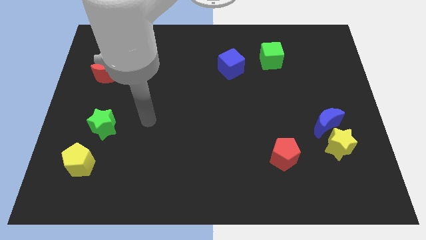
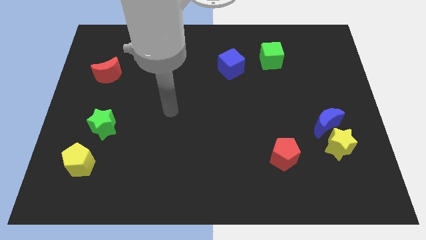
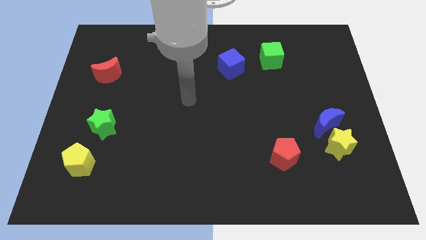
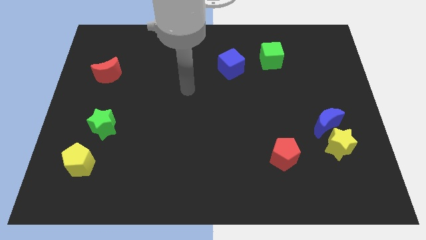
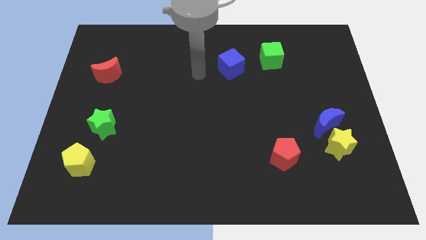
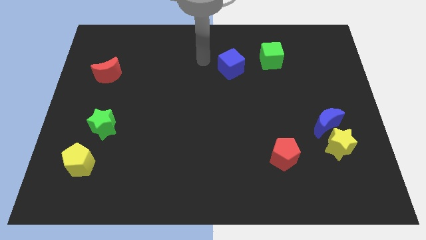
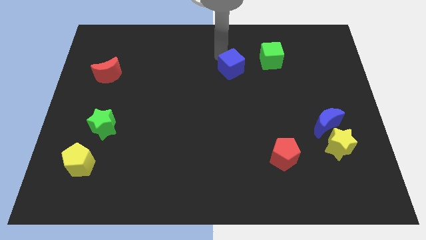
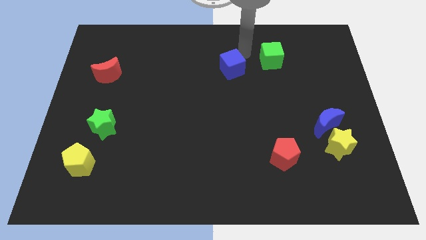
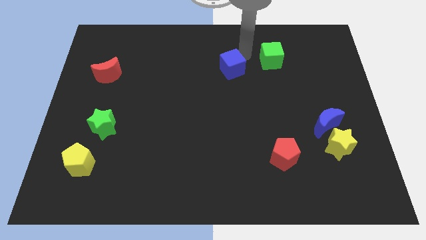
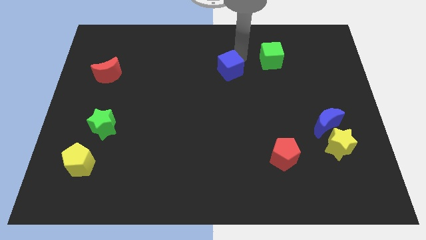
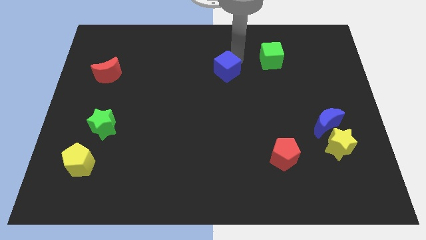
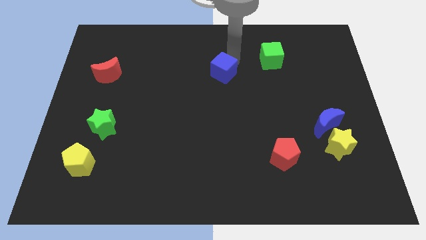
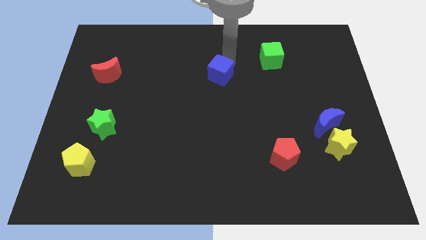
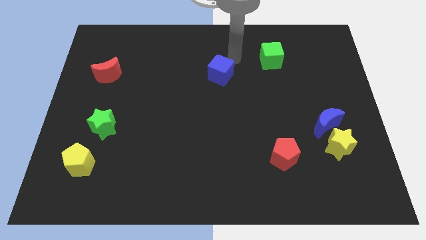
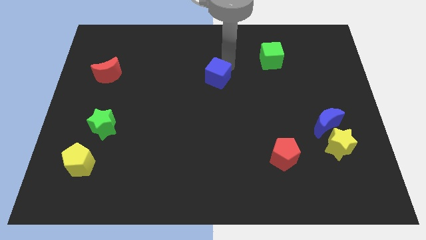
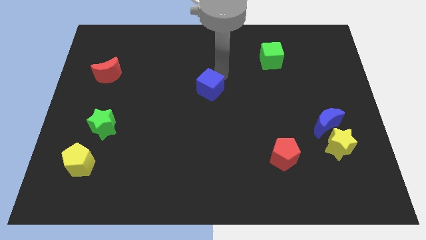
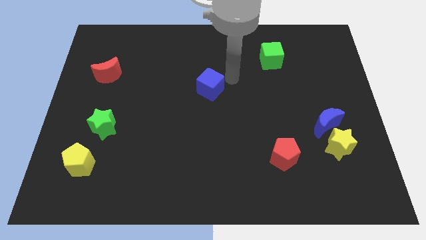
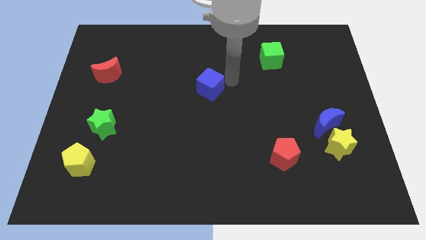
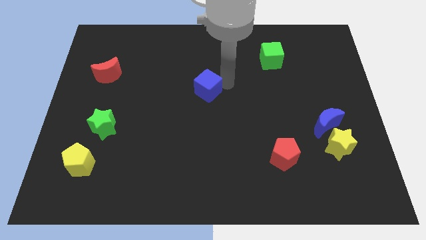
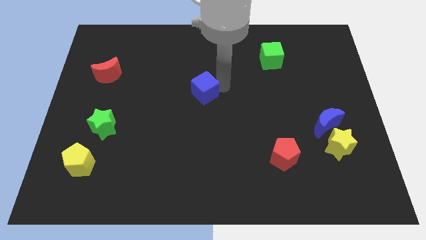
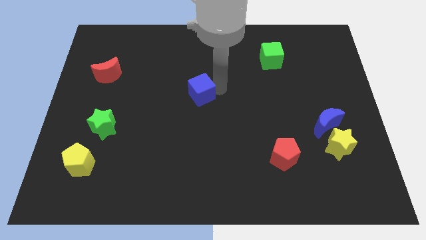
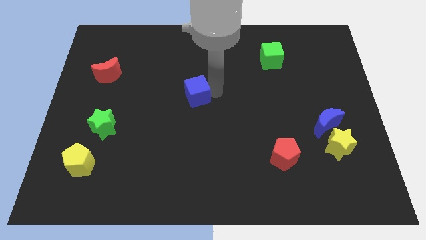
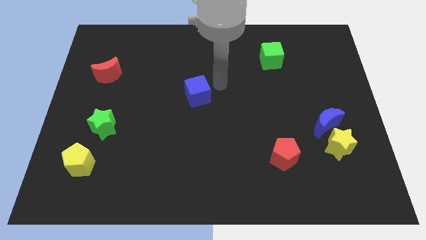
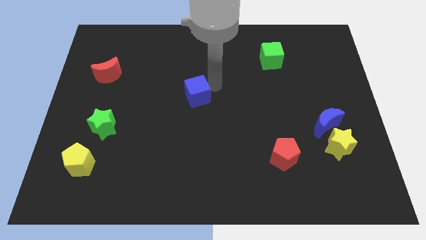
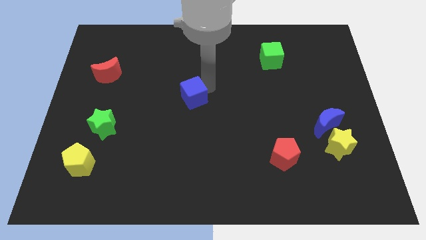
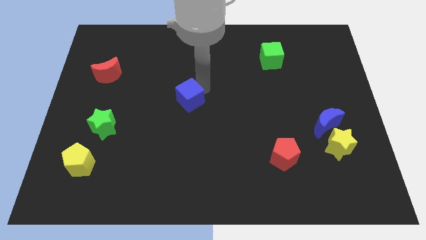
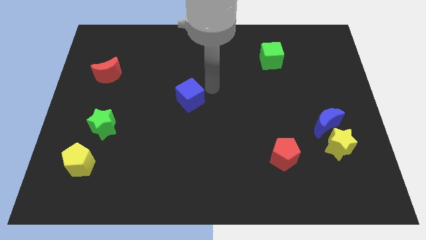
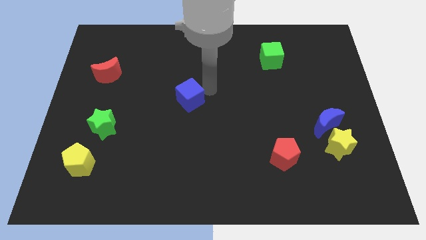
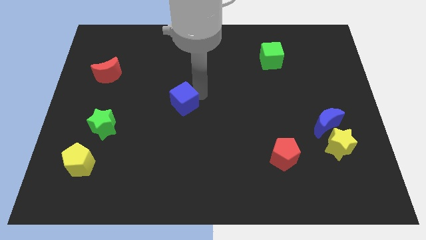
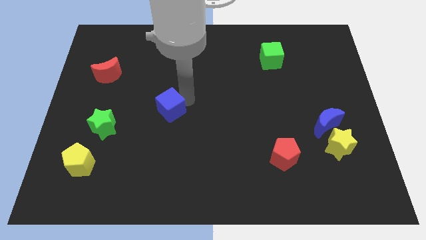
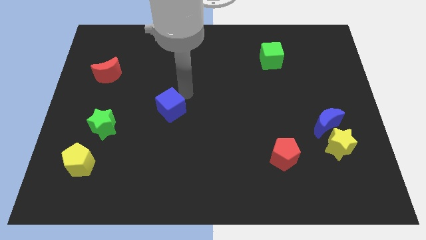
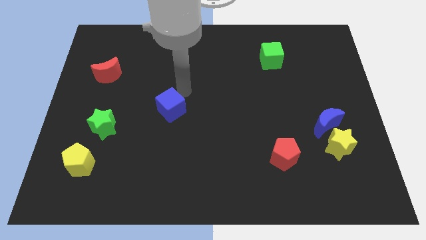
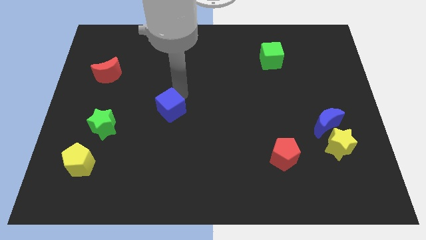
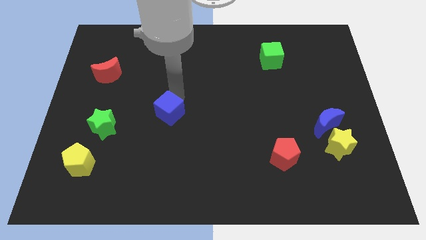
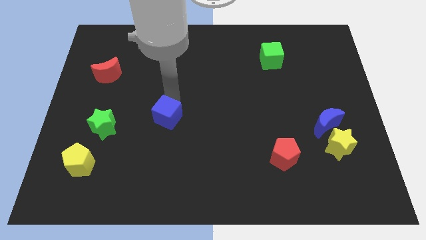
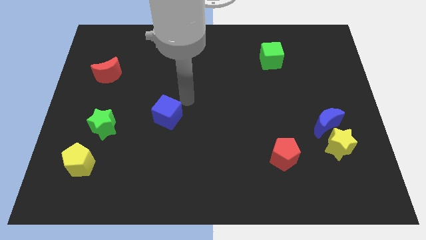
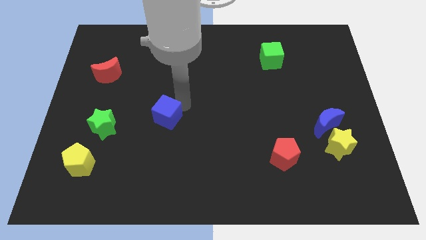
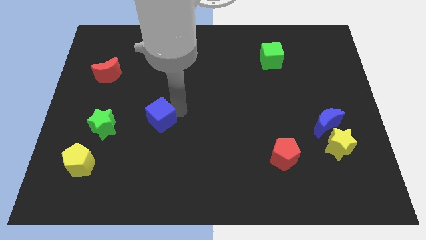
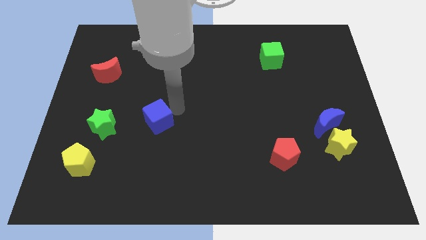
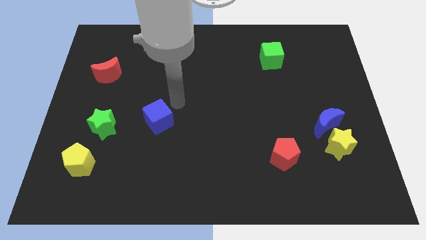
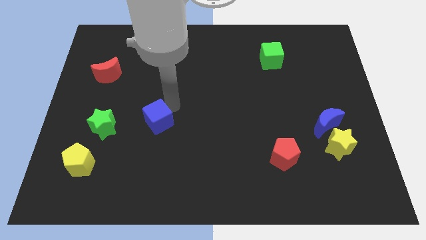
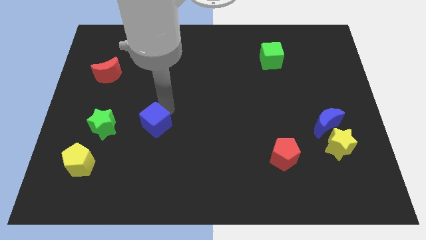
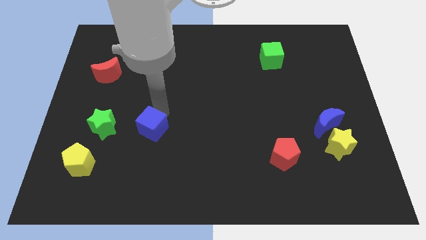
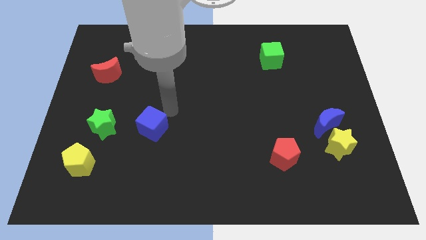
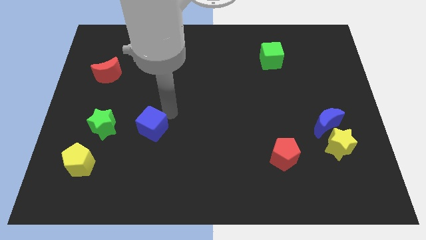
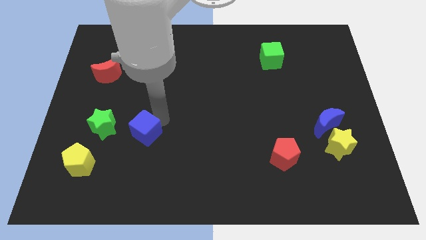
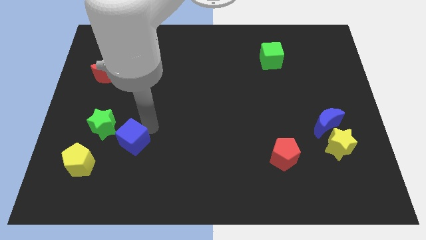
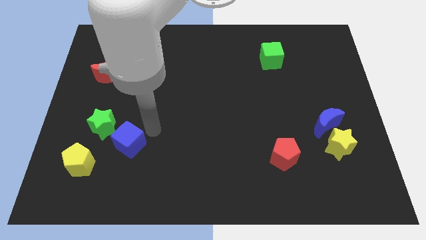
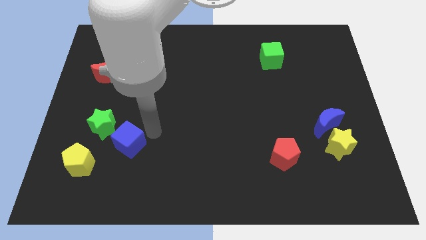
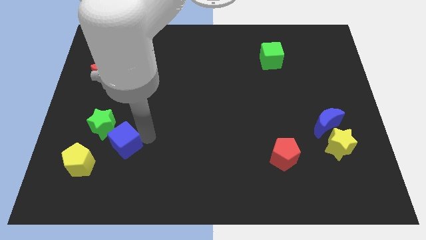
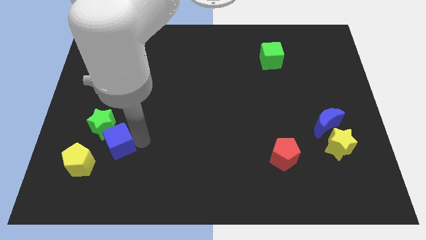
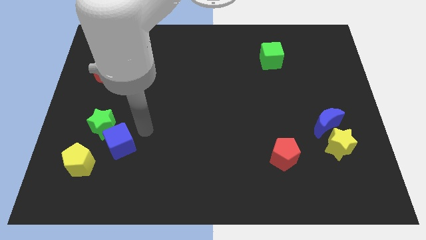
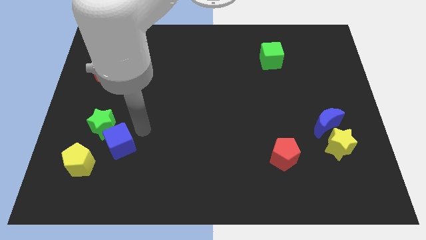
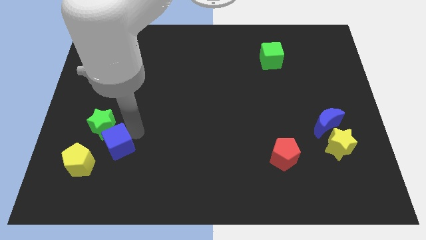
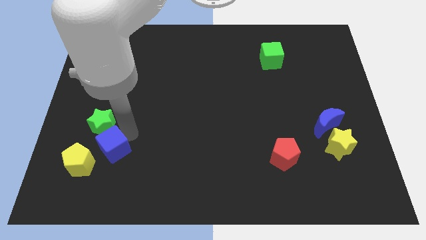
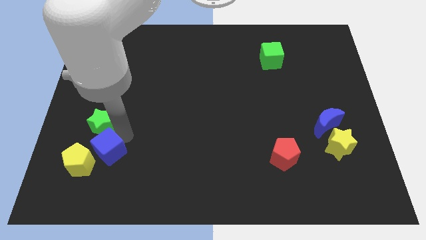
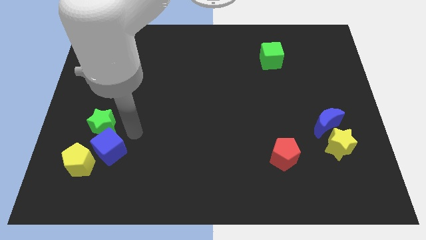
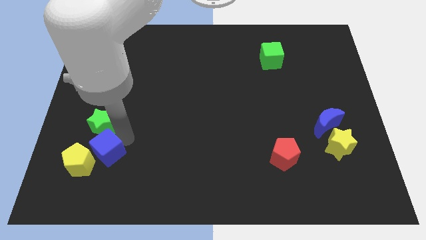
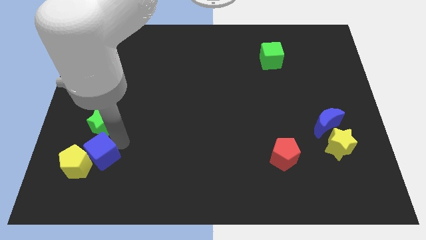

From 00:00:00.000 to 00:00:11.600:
push the blue cube next to the yellow pentagon
